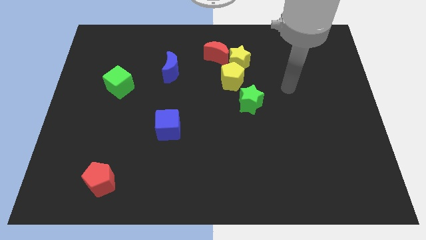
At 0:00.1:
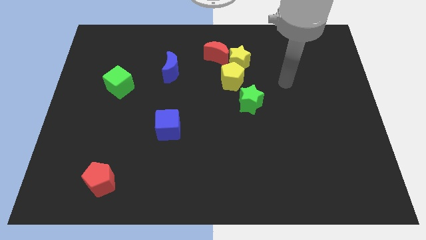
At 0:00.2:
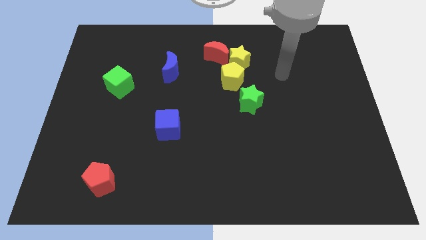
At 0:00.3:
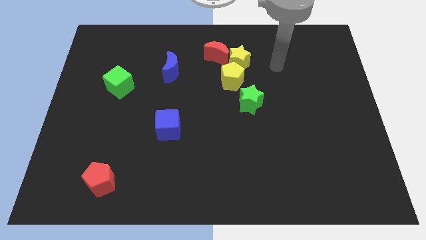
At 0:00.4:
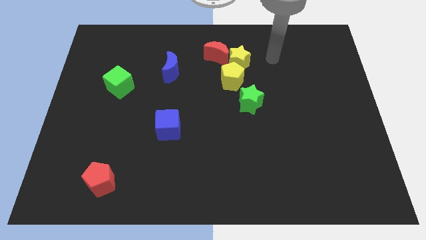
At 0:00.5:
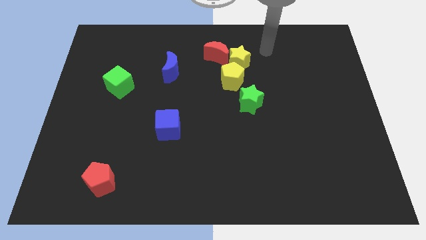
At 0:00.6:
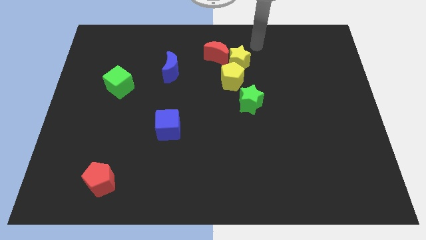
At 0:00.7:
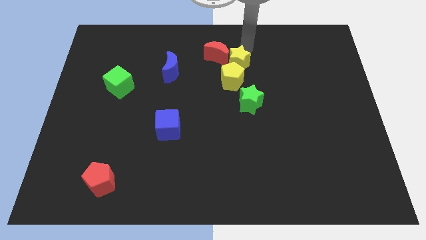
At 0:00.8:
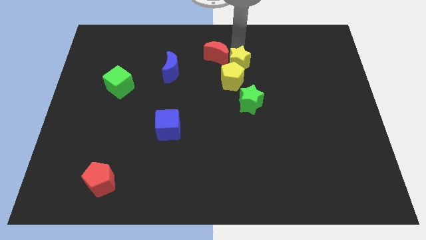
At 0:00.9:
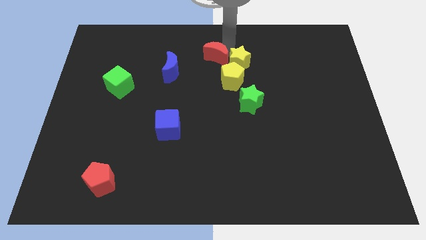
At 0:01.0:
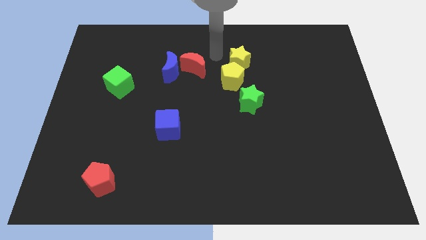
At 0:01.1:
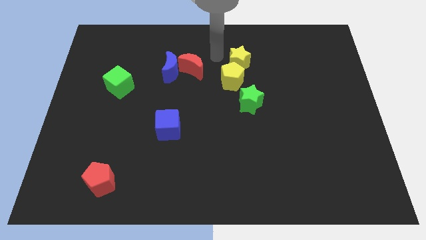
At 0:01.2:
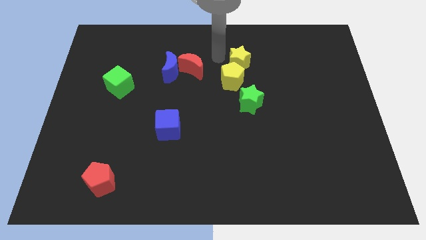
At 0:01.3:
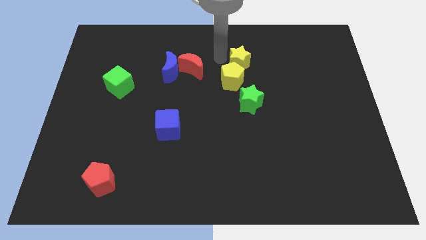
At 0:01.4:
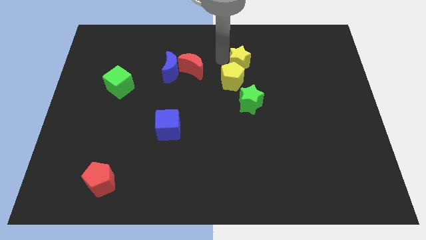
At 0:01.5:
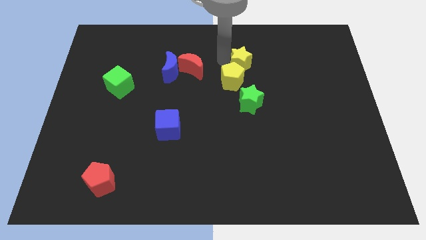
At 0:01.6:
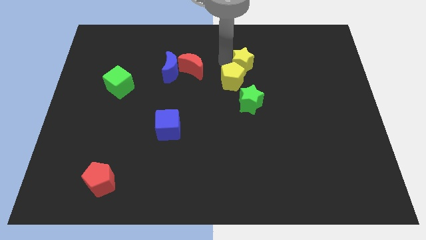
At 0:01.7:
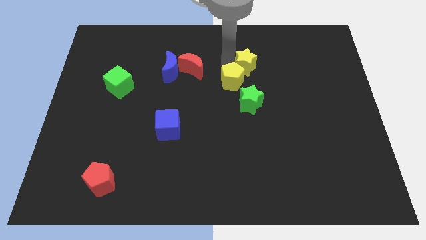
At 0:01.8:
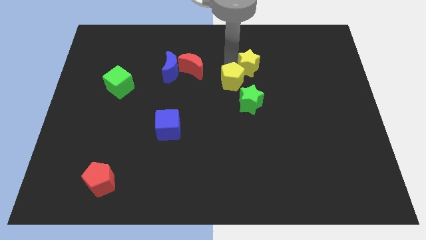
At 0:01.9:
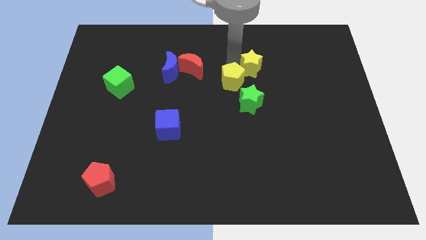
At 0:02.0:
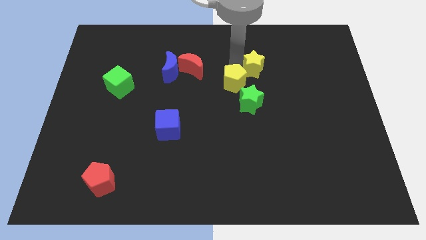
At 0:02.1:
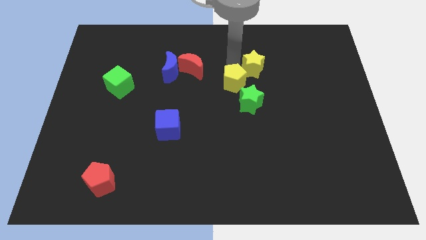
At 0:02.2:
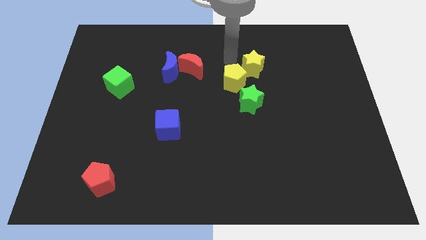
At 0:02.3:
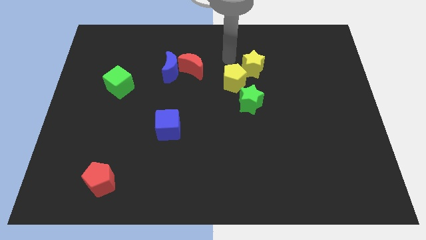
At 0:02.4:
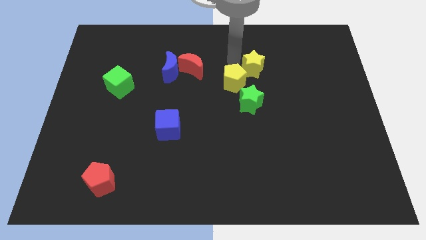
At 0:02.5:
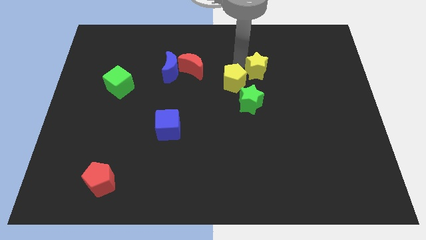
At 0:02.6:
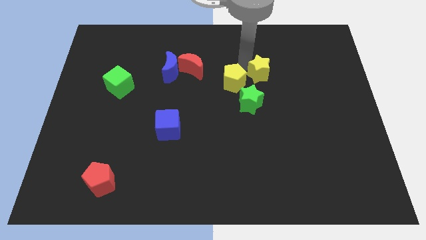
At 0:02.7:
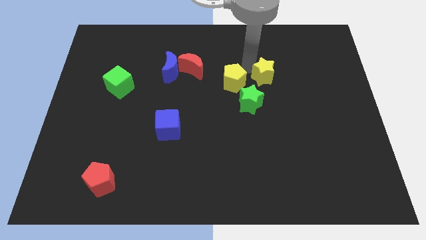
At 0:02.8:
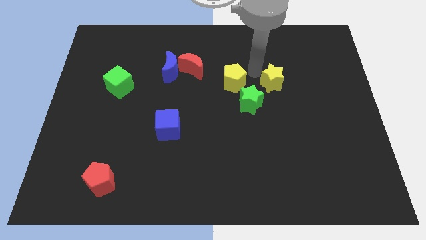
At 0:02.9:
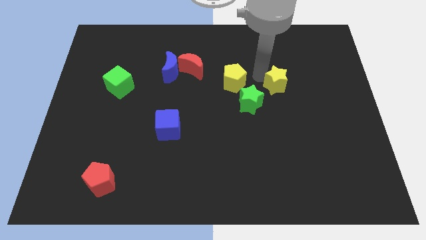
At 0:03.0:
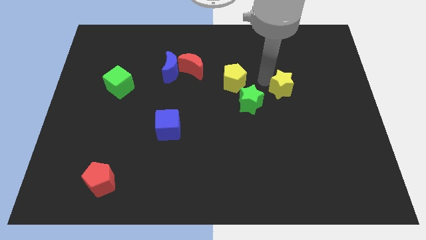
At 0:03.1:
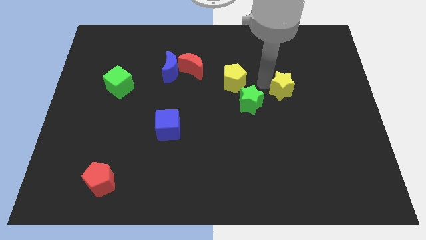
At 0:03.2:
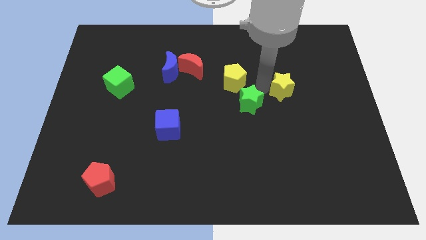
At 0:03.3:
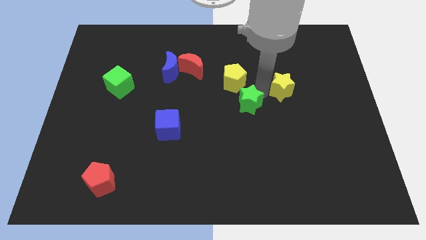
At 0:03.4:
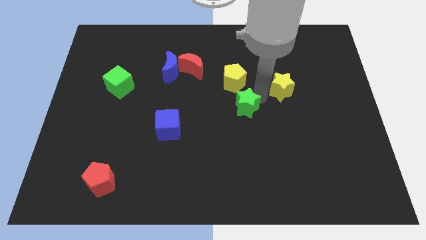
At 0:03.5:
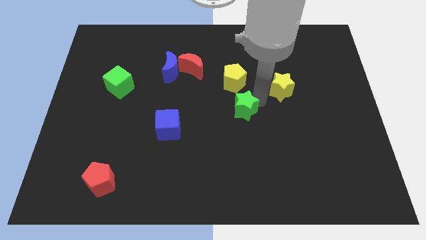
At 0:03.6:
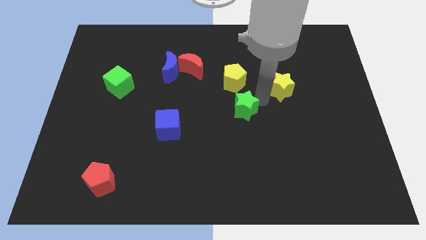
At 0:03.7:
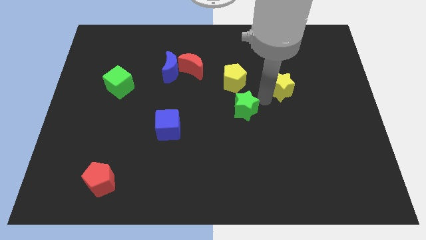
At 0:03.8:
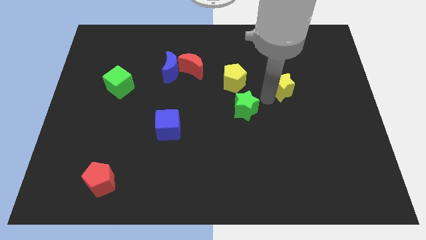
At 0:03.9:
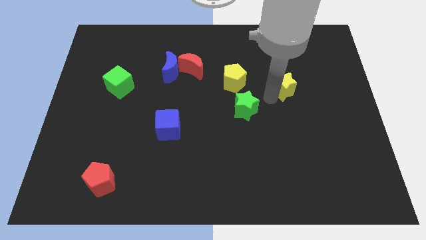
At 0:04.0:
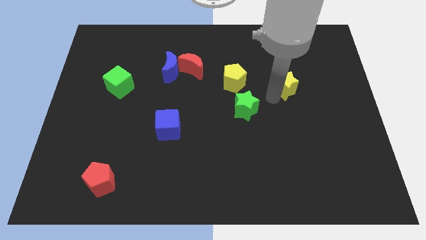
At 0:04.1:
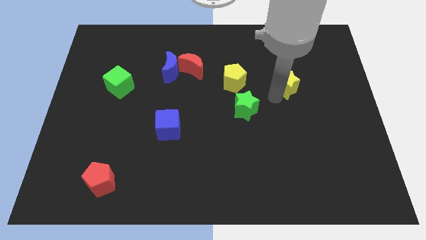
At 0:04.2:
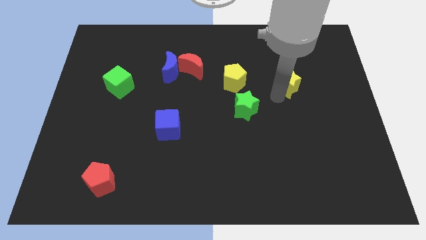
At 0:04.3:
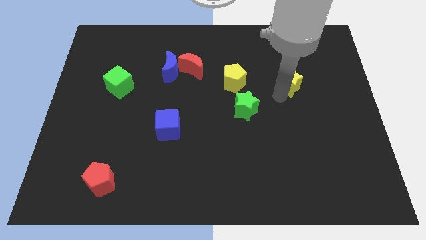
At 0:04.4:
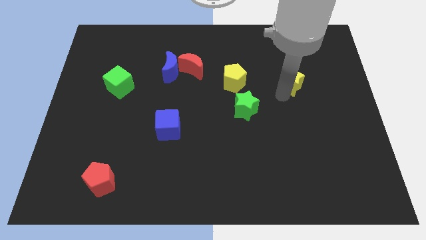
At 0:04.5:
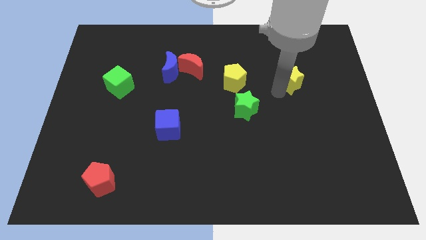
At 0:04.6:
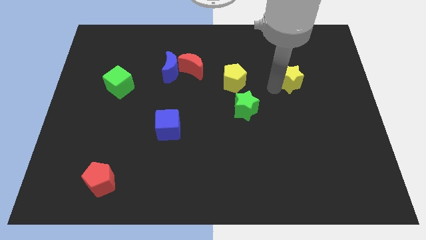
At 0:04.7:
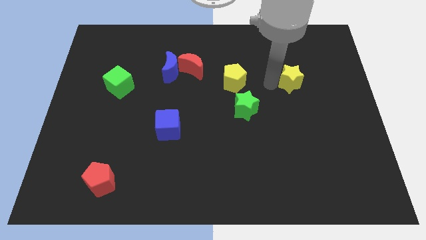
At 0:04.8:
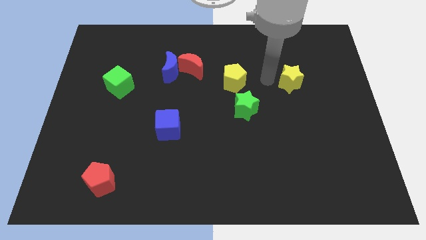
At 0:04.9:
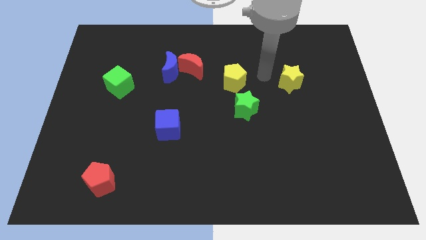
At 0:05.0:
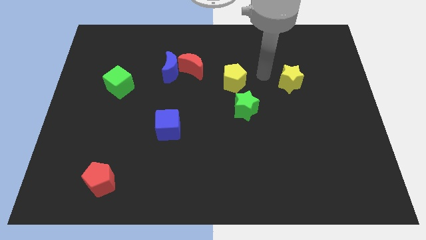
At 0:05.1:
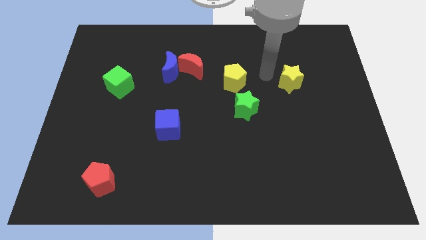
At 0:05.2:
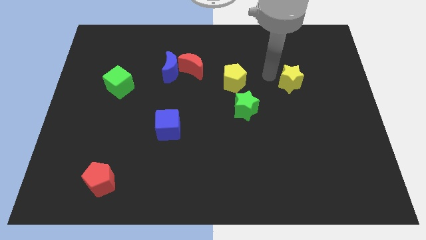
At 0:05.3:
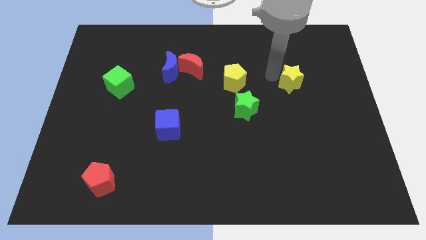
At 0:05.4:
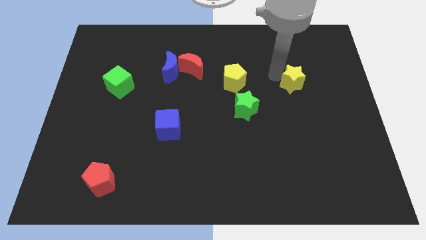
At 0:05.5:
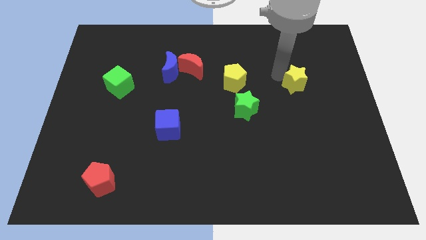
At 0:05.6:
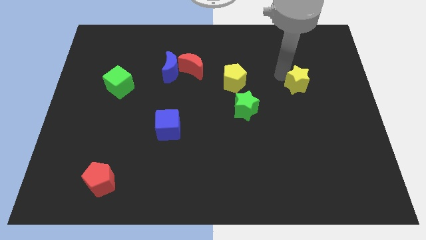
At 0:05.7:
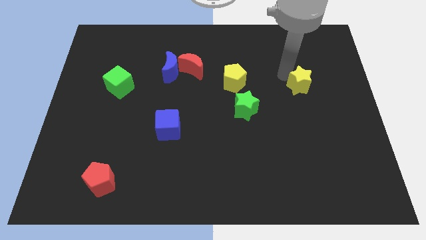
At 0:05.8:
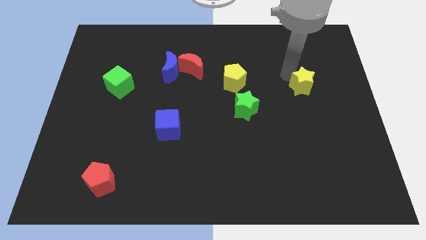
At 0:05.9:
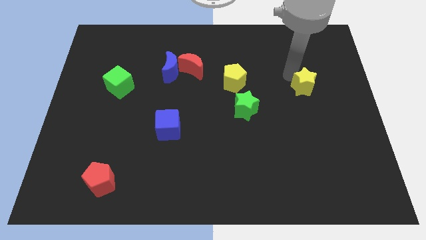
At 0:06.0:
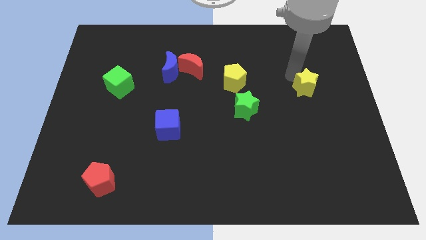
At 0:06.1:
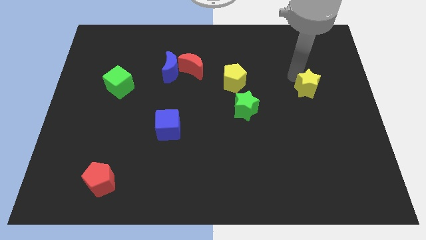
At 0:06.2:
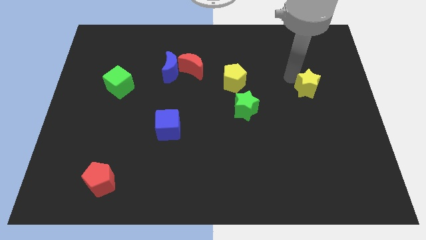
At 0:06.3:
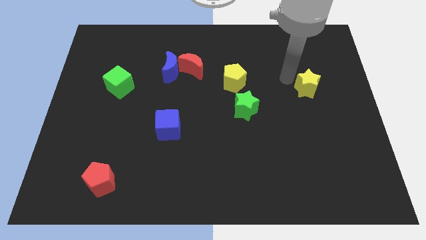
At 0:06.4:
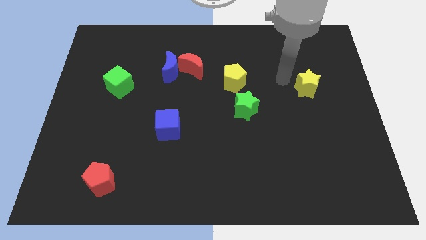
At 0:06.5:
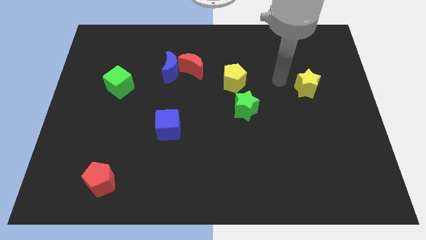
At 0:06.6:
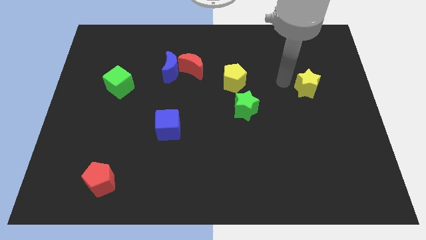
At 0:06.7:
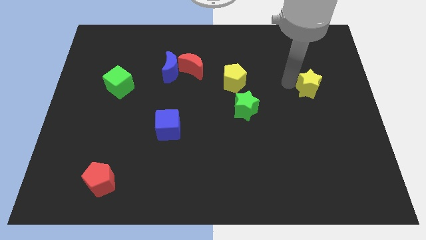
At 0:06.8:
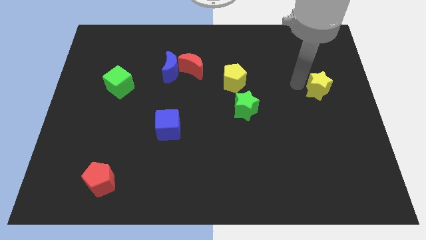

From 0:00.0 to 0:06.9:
push the yellow star to the right side of the board
